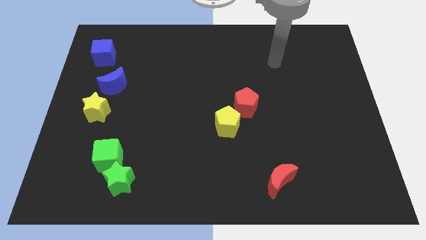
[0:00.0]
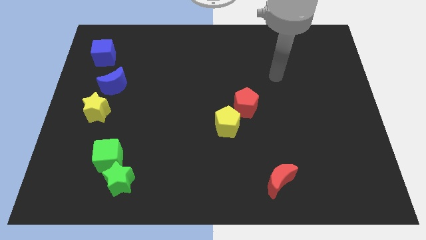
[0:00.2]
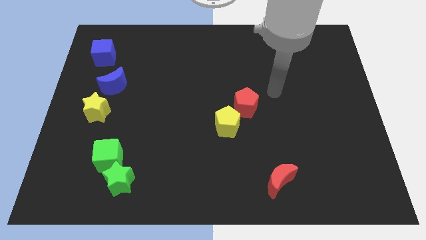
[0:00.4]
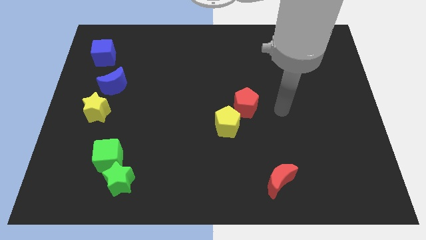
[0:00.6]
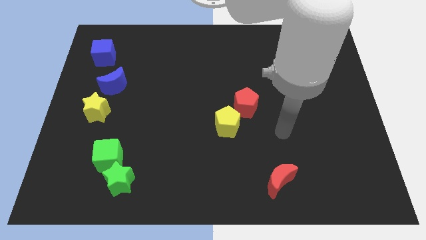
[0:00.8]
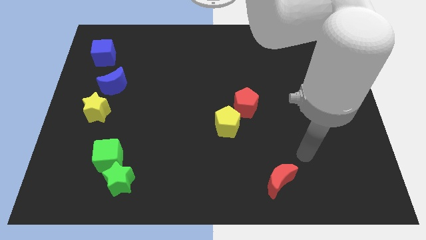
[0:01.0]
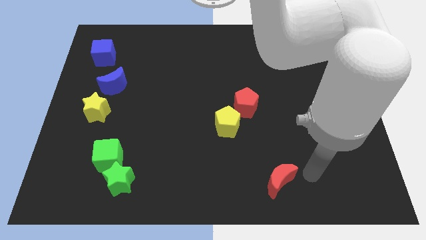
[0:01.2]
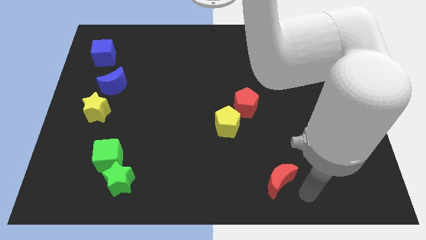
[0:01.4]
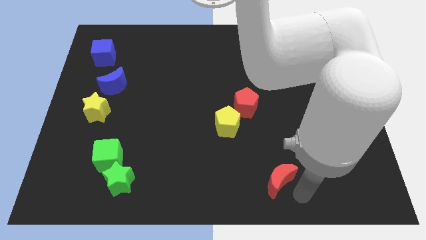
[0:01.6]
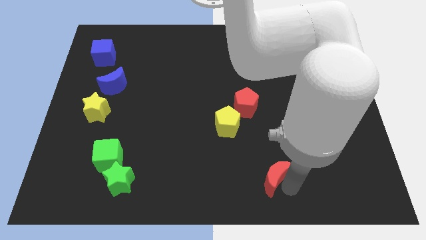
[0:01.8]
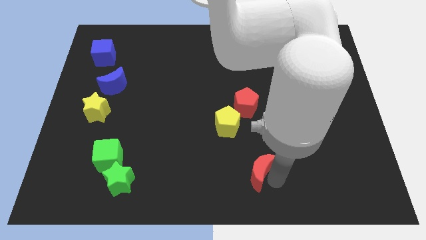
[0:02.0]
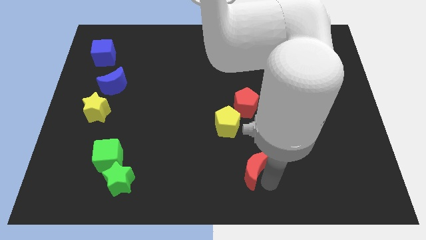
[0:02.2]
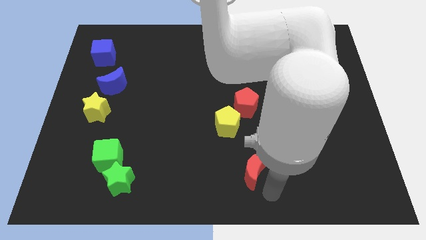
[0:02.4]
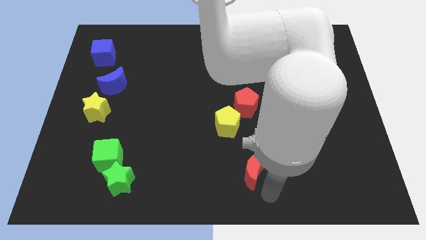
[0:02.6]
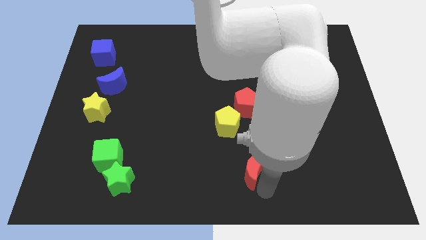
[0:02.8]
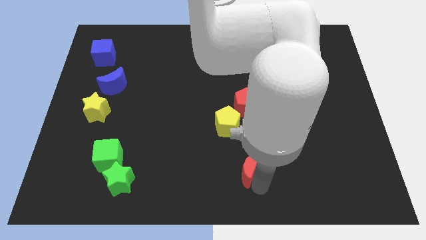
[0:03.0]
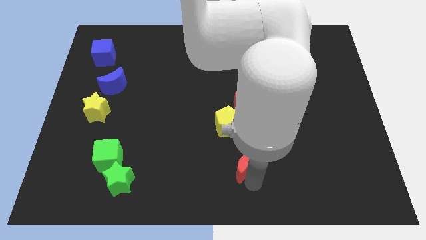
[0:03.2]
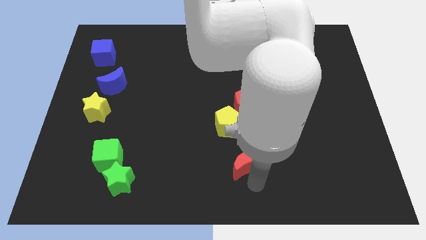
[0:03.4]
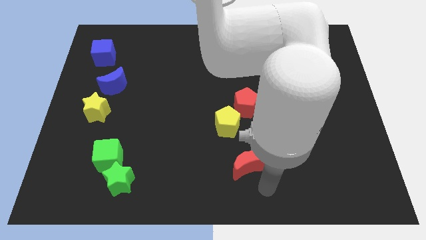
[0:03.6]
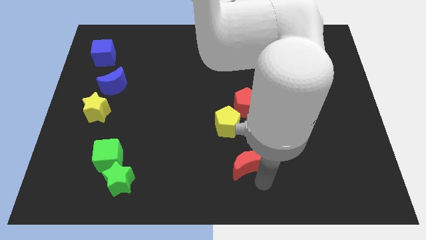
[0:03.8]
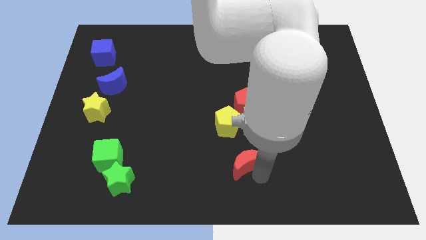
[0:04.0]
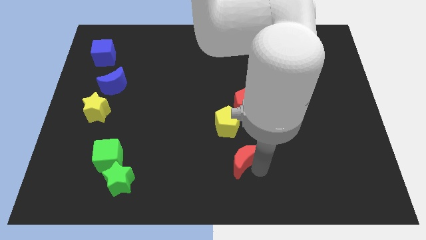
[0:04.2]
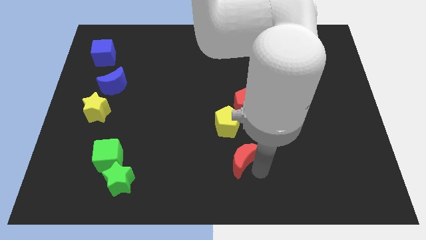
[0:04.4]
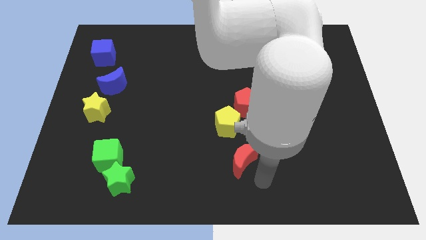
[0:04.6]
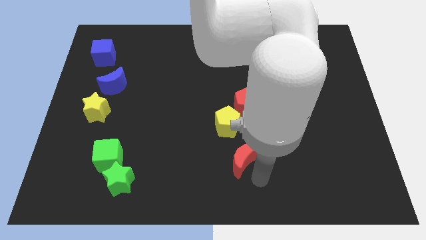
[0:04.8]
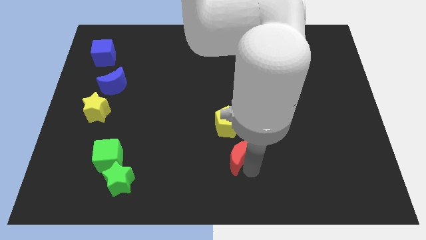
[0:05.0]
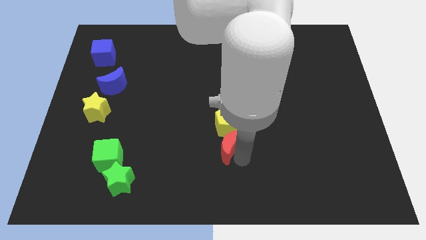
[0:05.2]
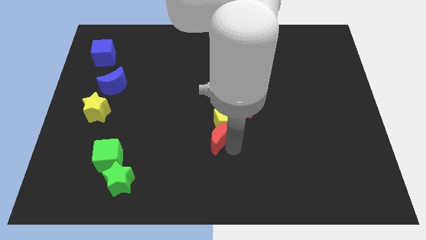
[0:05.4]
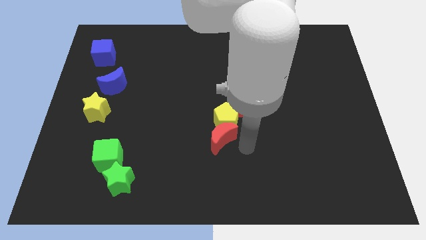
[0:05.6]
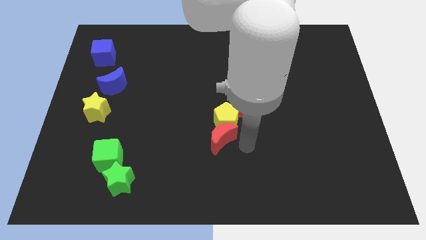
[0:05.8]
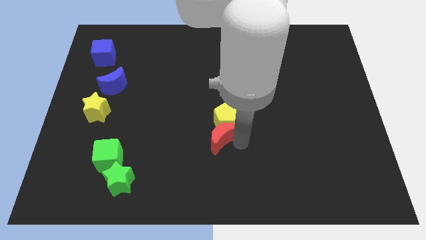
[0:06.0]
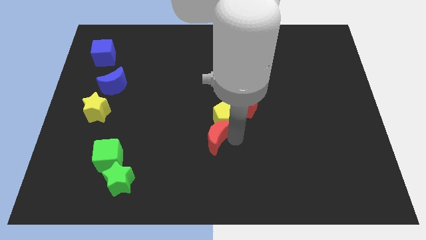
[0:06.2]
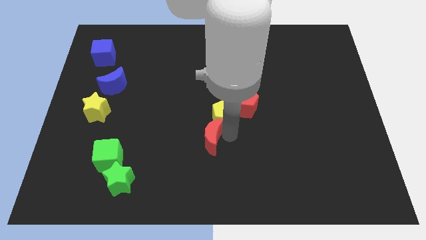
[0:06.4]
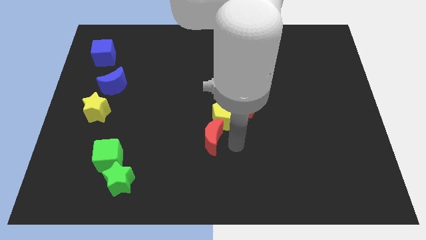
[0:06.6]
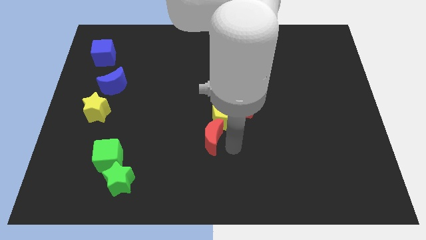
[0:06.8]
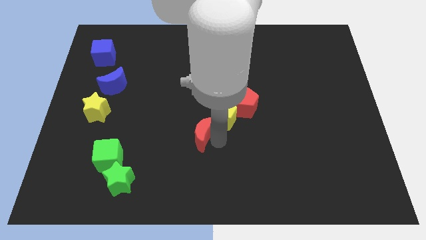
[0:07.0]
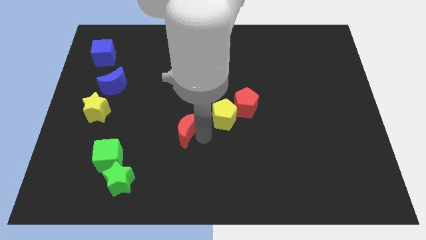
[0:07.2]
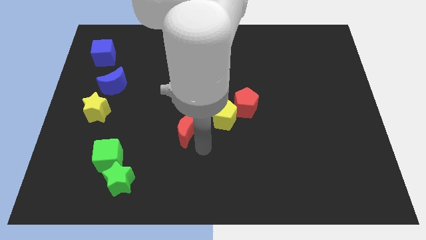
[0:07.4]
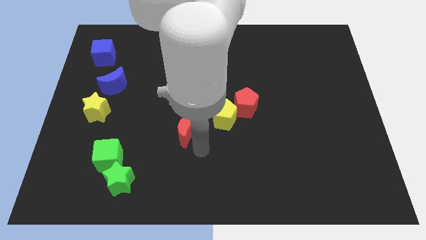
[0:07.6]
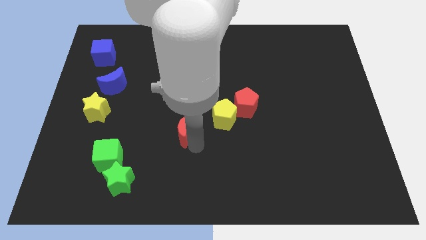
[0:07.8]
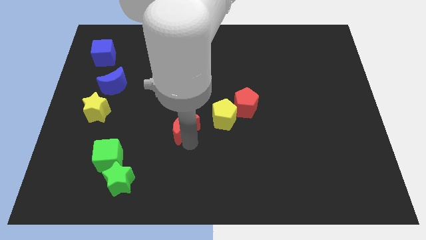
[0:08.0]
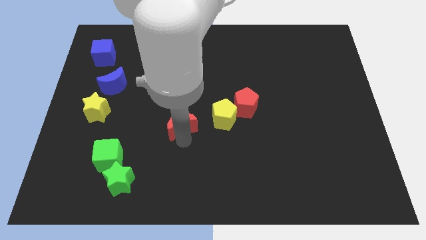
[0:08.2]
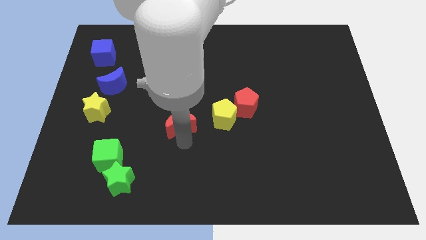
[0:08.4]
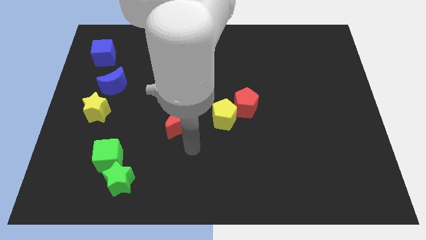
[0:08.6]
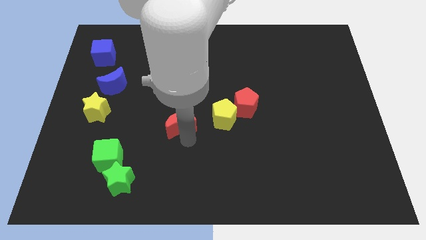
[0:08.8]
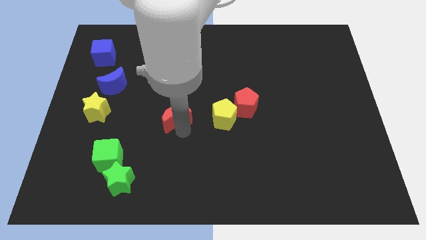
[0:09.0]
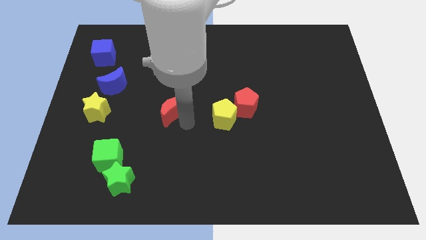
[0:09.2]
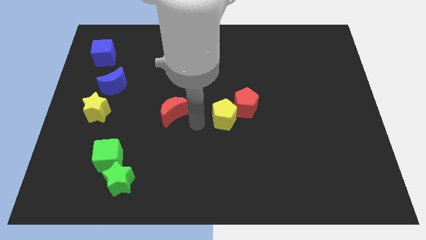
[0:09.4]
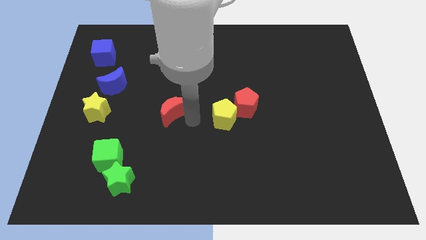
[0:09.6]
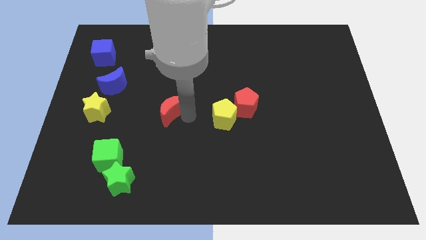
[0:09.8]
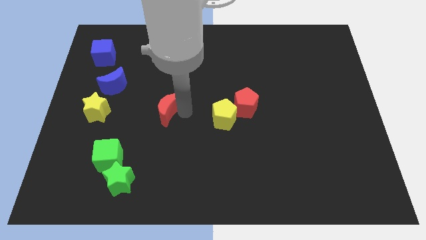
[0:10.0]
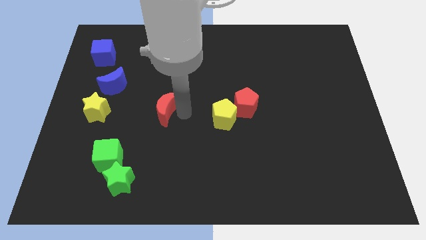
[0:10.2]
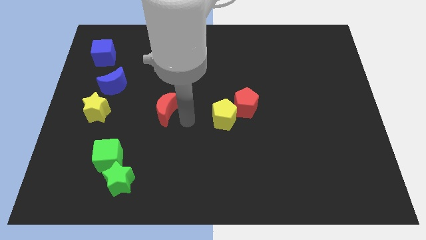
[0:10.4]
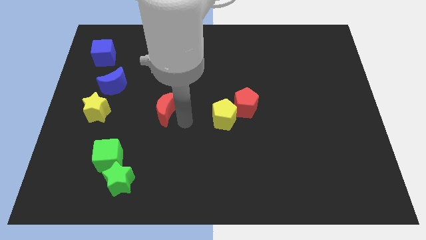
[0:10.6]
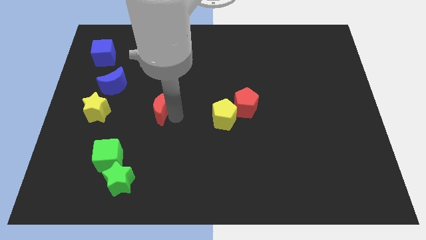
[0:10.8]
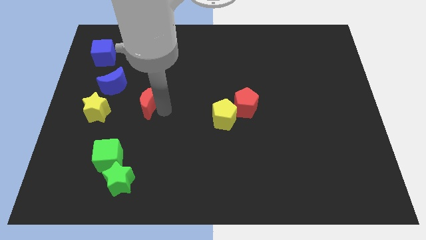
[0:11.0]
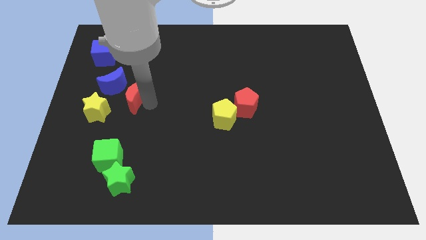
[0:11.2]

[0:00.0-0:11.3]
move the red moon to the top right of the yellow star

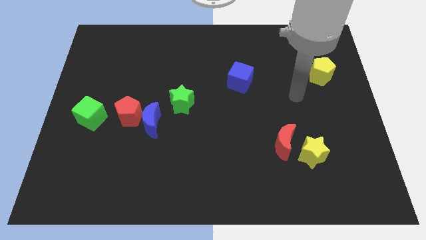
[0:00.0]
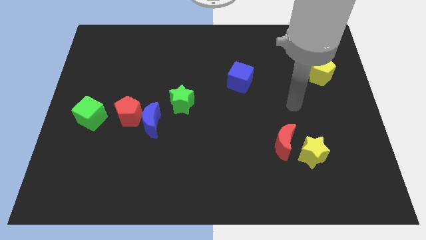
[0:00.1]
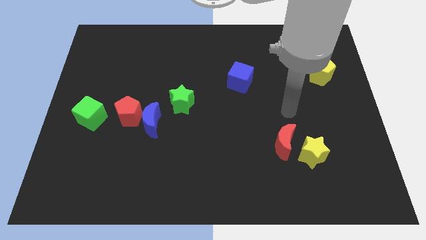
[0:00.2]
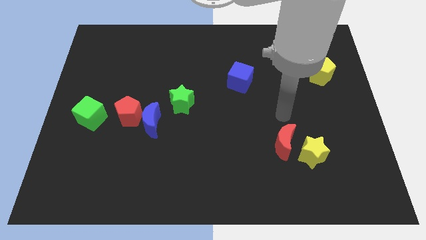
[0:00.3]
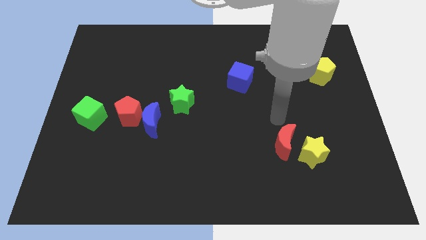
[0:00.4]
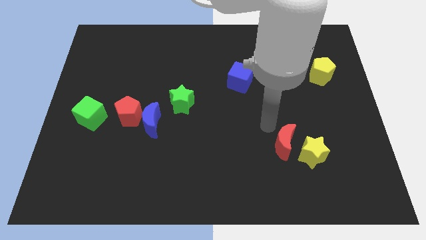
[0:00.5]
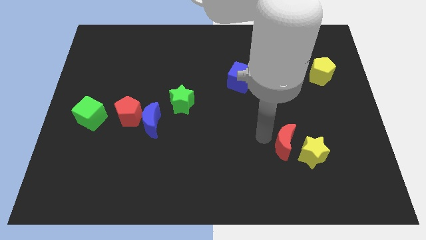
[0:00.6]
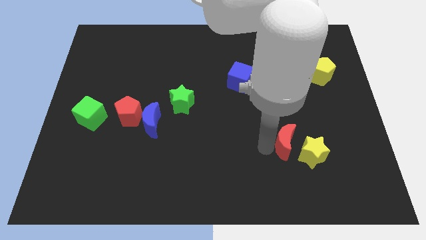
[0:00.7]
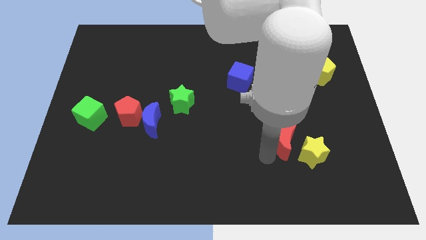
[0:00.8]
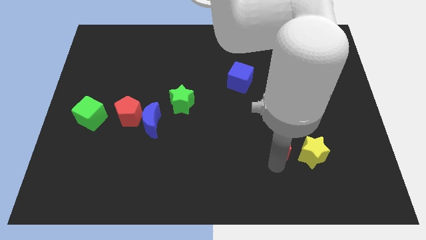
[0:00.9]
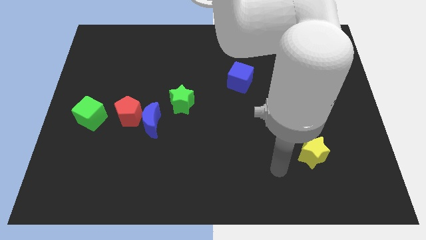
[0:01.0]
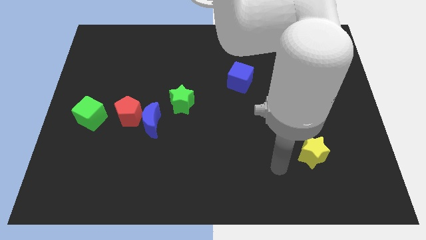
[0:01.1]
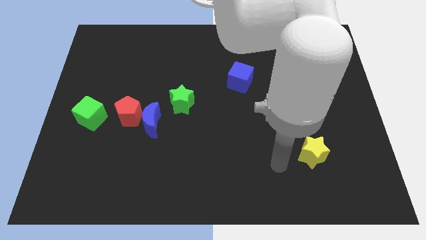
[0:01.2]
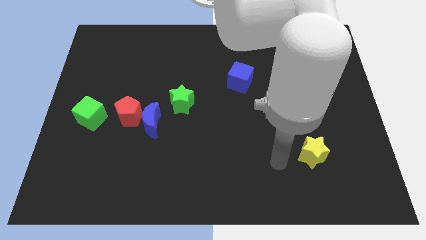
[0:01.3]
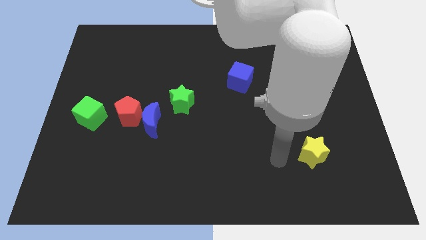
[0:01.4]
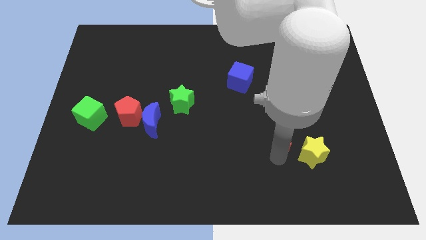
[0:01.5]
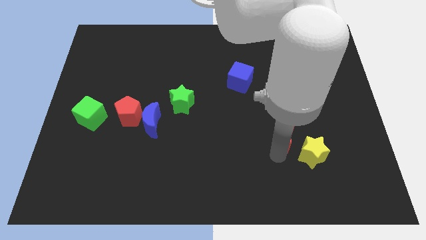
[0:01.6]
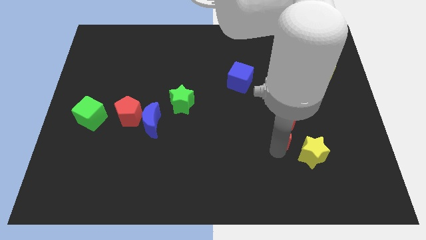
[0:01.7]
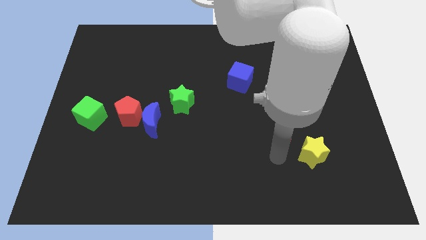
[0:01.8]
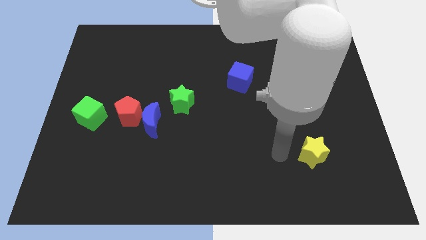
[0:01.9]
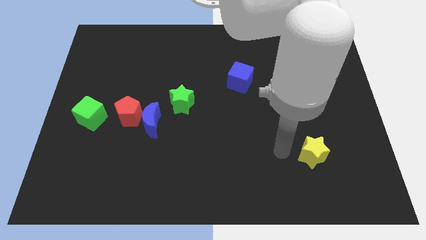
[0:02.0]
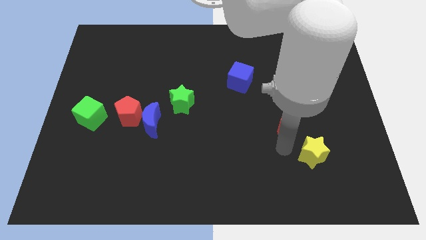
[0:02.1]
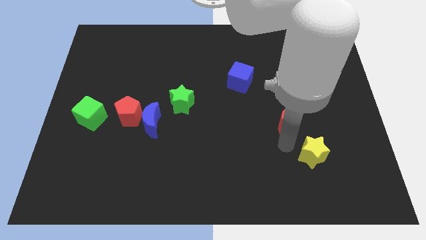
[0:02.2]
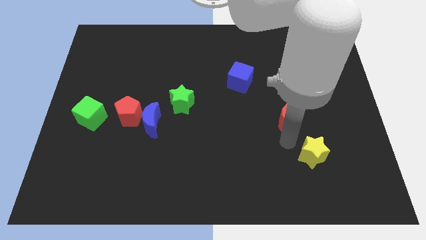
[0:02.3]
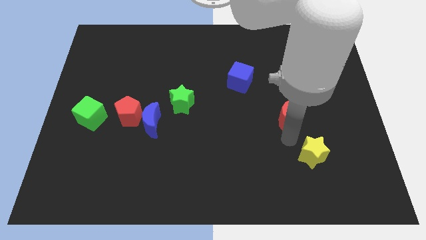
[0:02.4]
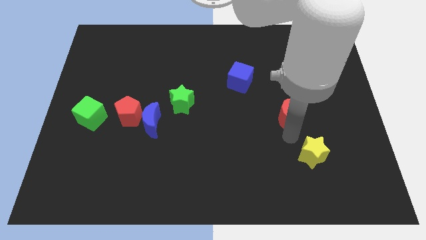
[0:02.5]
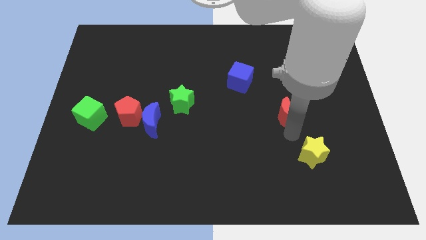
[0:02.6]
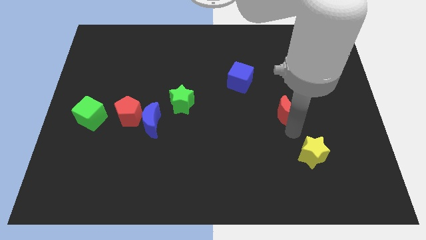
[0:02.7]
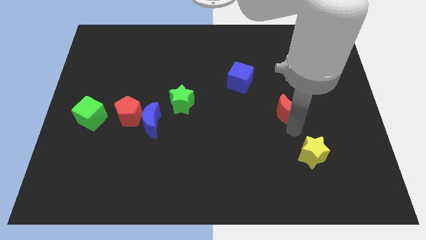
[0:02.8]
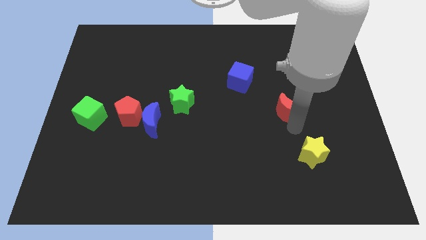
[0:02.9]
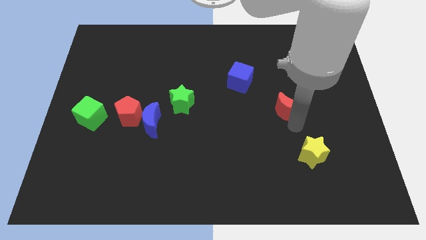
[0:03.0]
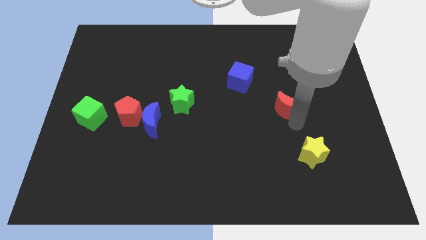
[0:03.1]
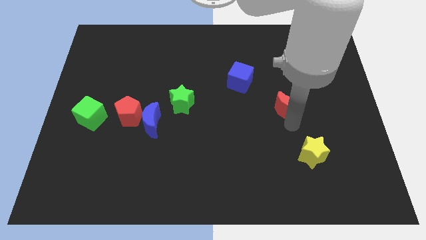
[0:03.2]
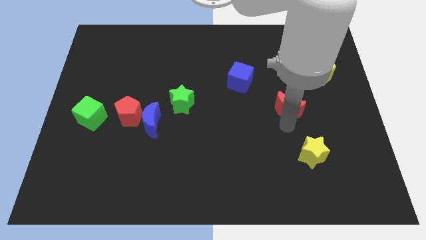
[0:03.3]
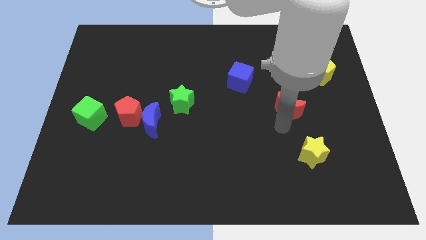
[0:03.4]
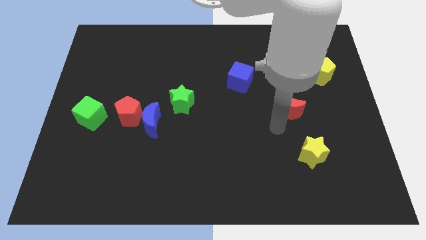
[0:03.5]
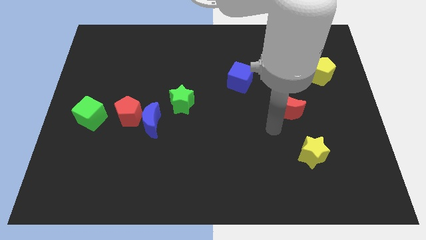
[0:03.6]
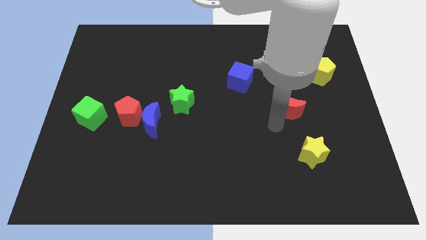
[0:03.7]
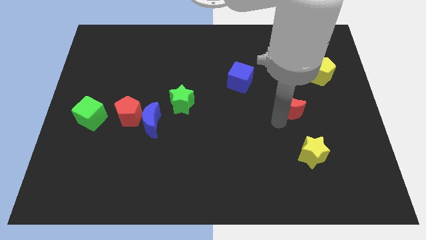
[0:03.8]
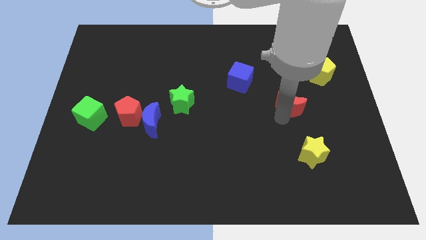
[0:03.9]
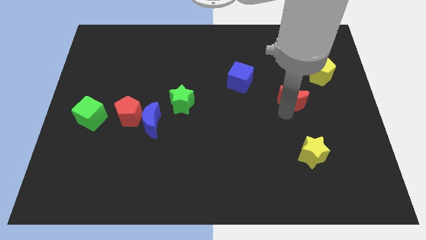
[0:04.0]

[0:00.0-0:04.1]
put the red moon to the bottom left of the yellow pentagon
